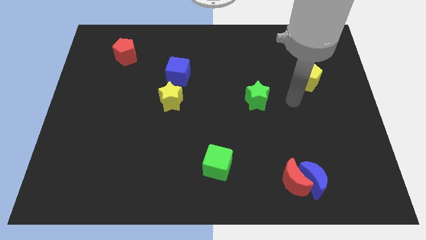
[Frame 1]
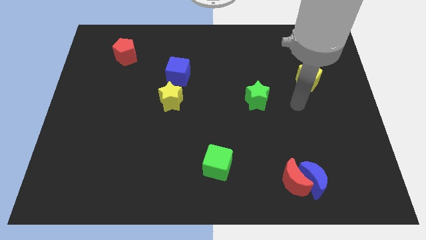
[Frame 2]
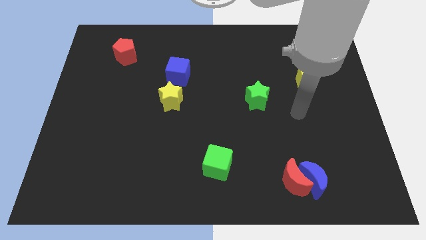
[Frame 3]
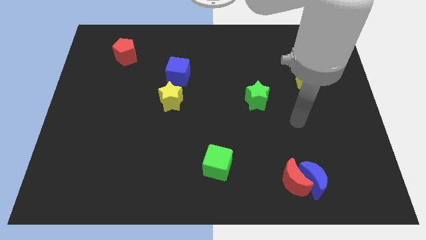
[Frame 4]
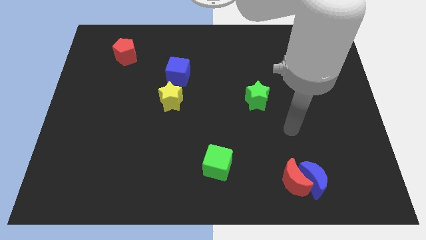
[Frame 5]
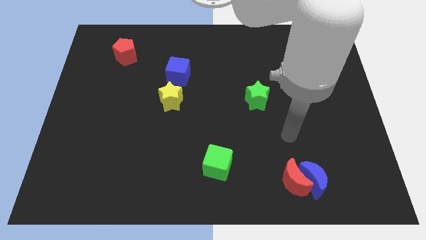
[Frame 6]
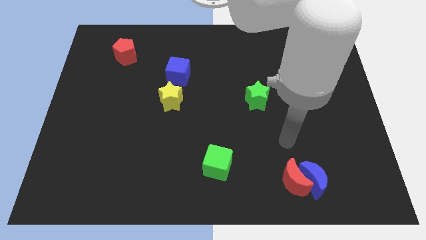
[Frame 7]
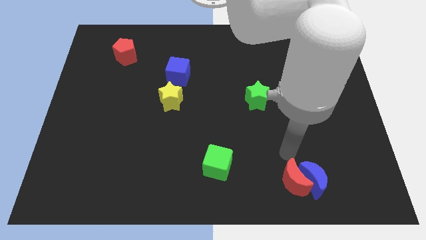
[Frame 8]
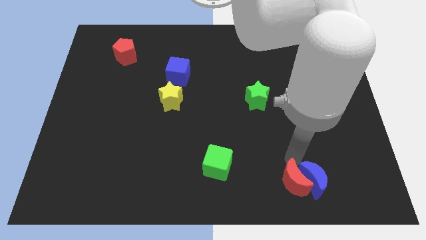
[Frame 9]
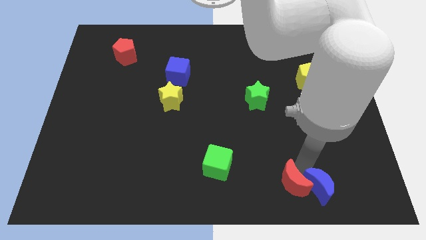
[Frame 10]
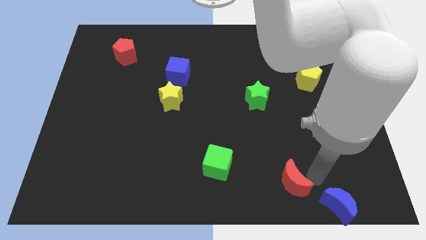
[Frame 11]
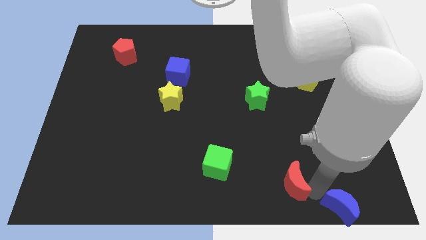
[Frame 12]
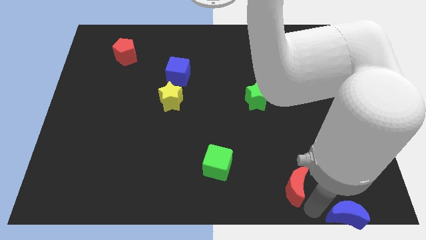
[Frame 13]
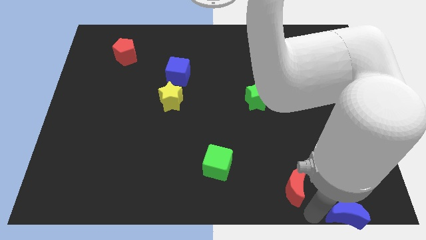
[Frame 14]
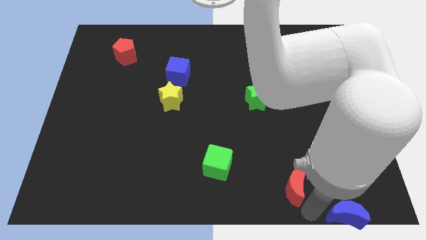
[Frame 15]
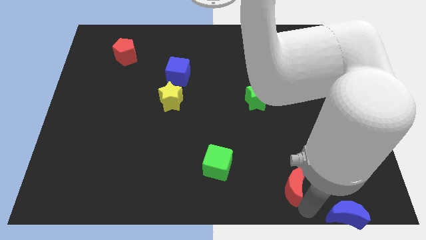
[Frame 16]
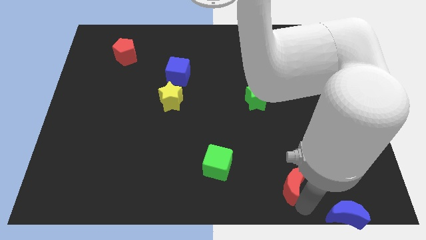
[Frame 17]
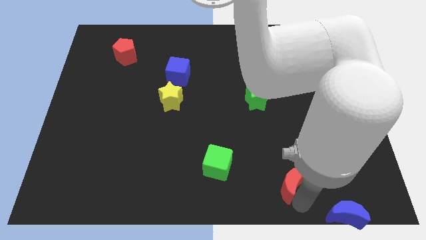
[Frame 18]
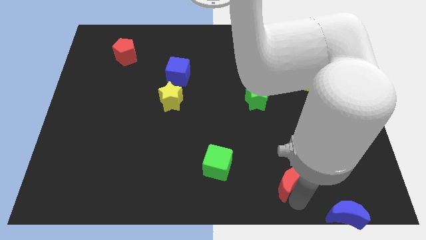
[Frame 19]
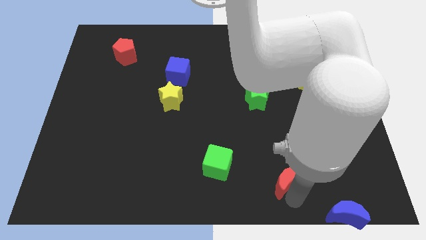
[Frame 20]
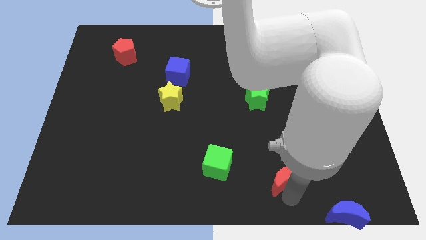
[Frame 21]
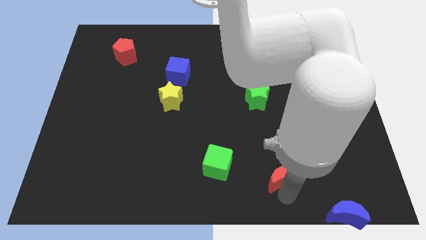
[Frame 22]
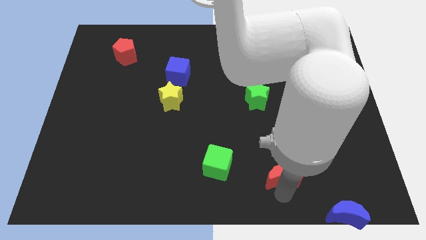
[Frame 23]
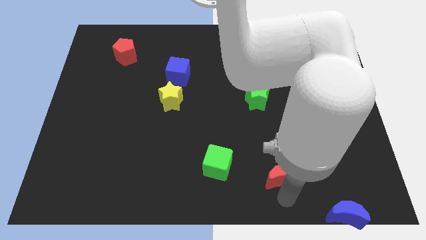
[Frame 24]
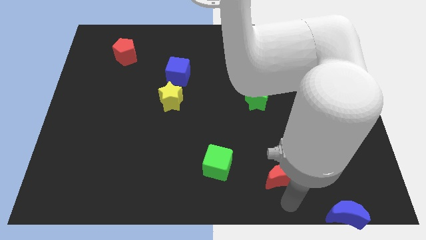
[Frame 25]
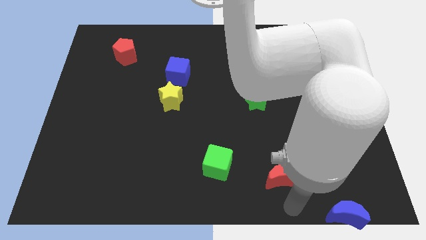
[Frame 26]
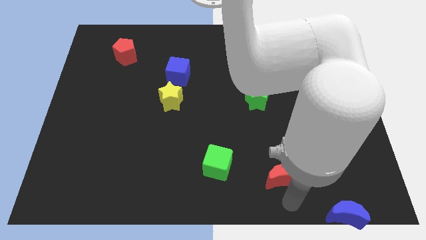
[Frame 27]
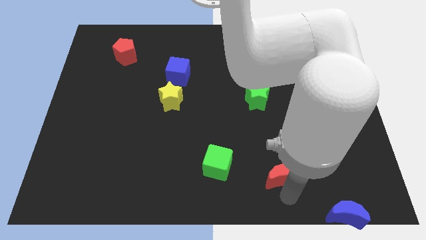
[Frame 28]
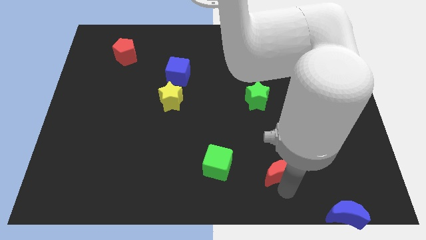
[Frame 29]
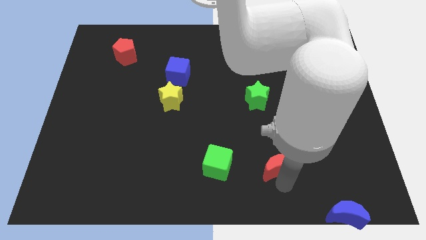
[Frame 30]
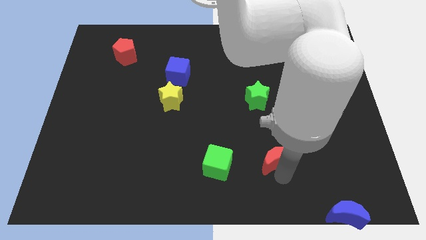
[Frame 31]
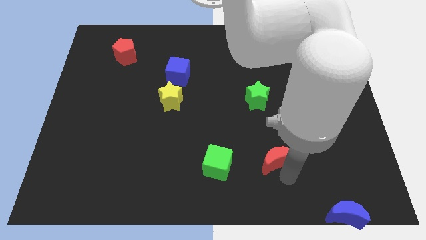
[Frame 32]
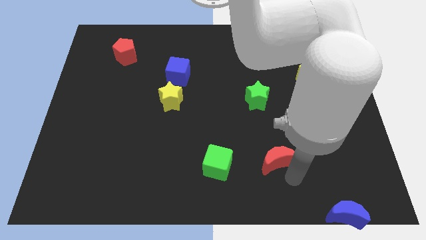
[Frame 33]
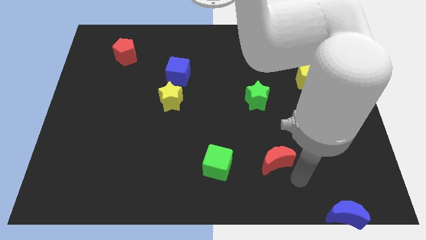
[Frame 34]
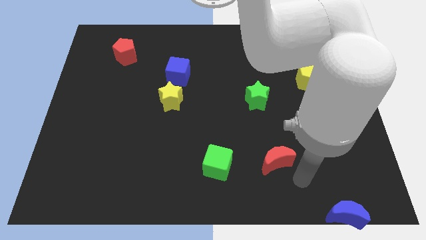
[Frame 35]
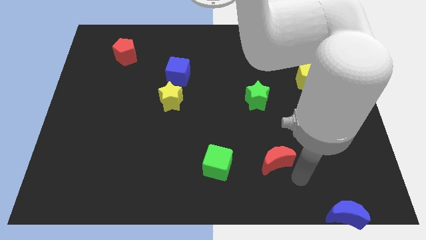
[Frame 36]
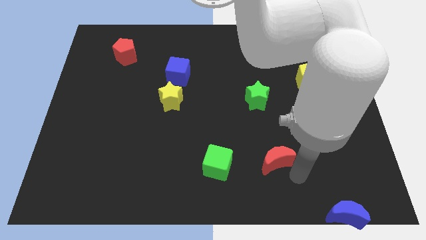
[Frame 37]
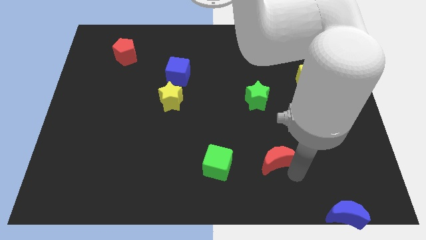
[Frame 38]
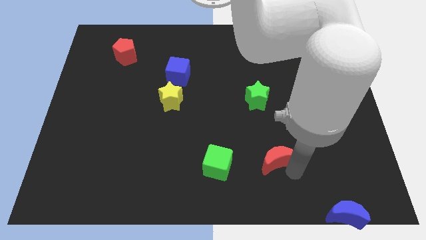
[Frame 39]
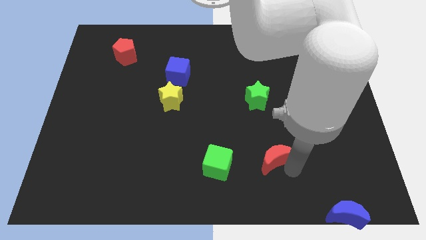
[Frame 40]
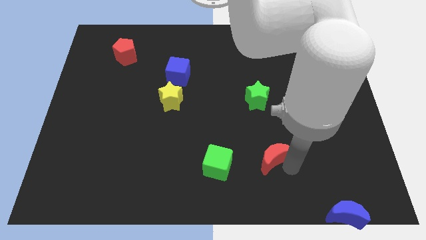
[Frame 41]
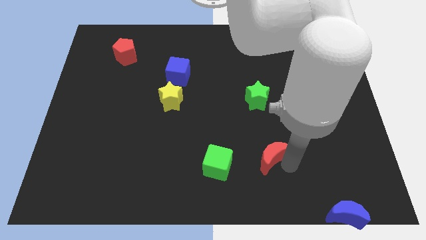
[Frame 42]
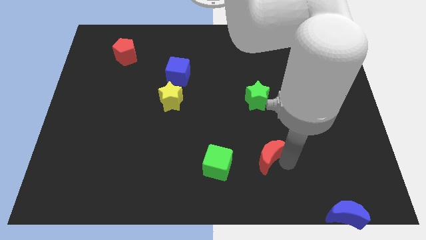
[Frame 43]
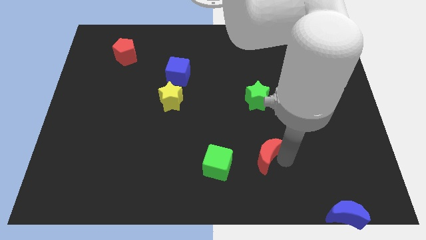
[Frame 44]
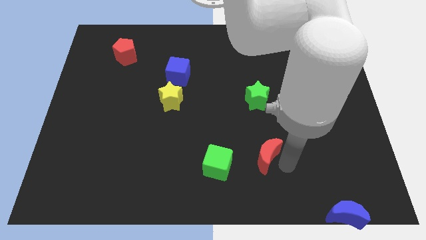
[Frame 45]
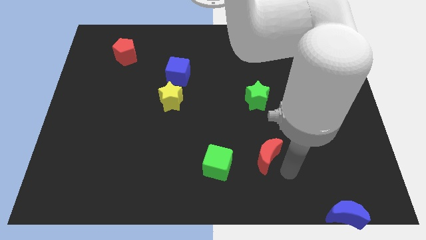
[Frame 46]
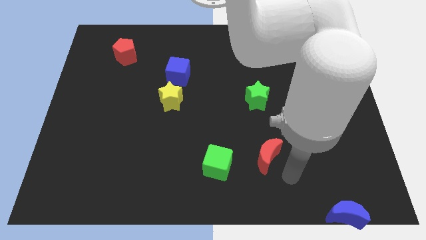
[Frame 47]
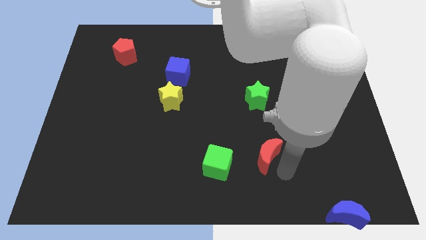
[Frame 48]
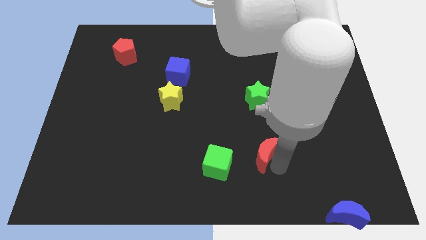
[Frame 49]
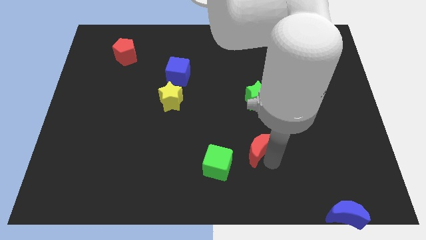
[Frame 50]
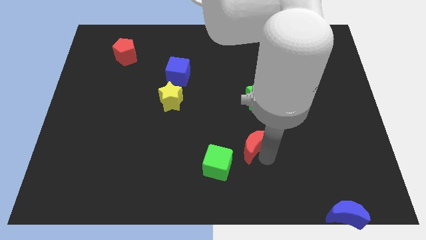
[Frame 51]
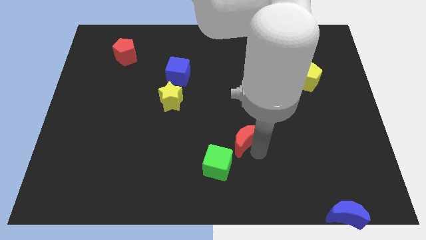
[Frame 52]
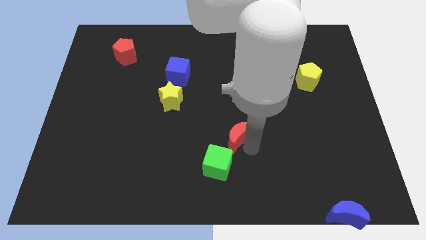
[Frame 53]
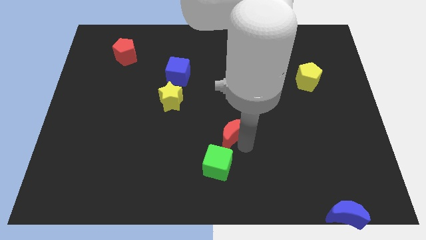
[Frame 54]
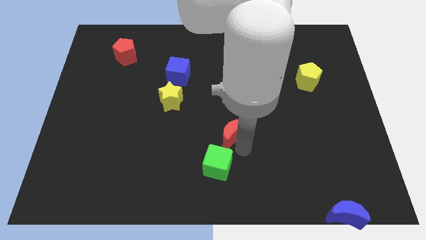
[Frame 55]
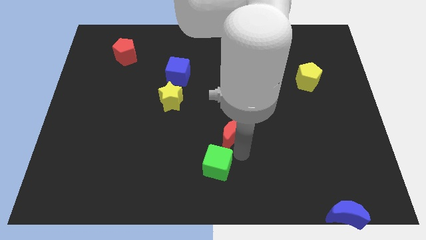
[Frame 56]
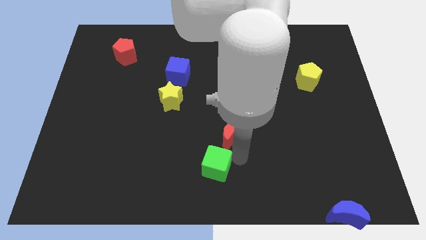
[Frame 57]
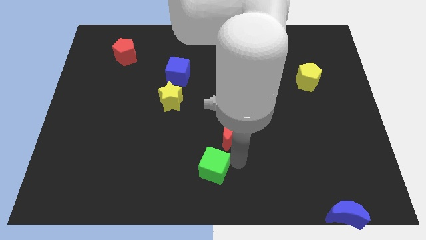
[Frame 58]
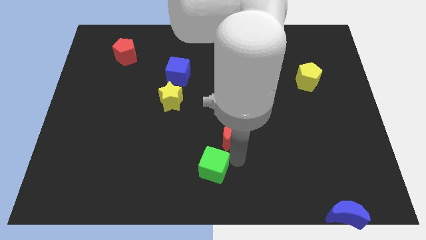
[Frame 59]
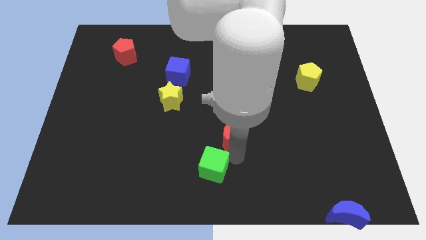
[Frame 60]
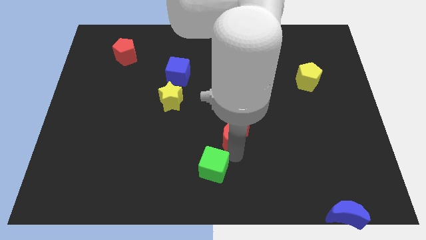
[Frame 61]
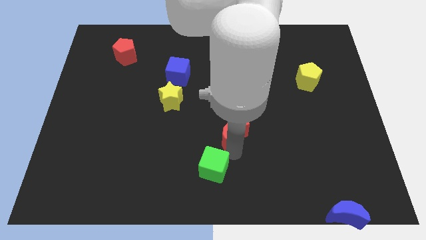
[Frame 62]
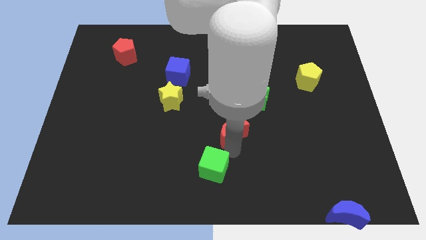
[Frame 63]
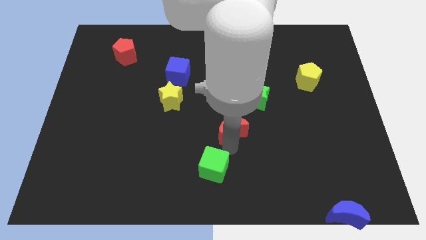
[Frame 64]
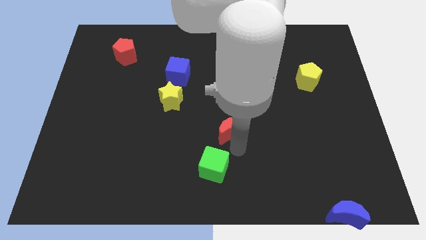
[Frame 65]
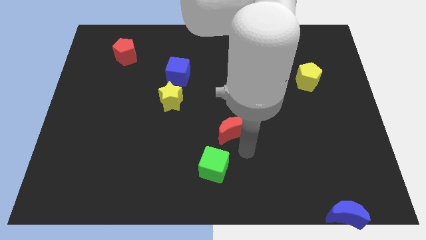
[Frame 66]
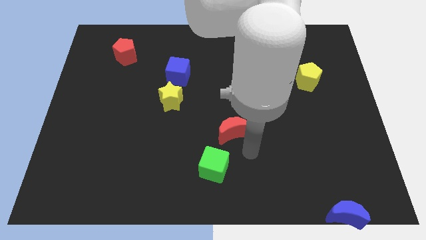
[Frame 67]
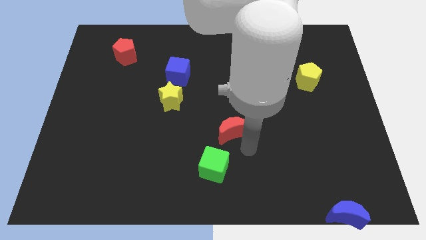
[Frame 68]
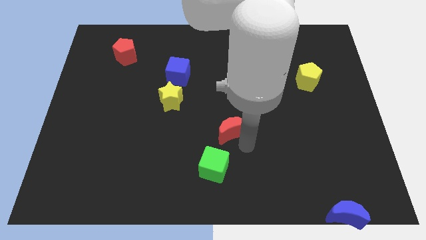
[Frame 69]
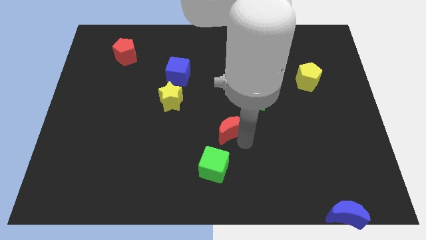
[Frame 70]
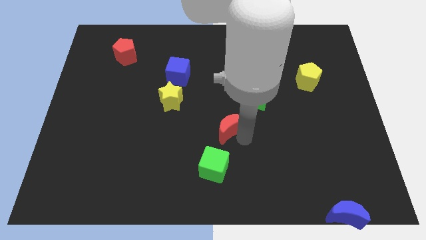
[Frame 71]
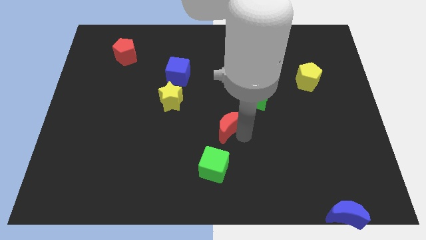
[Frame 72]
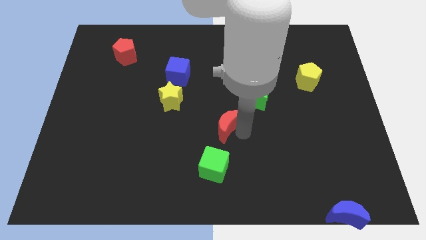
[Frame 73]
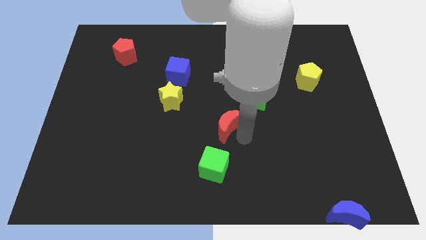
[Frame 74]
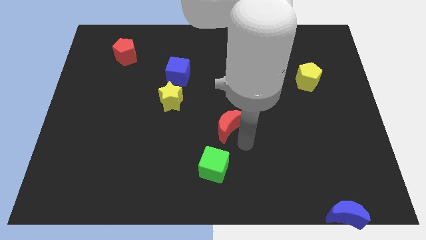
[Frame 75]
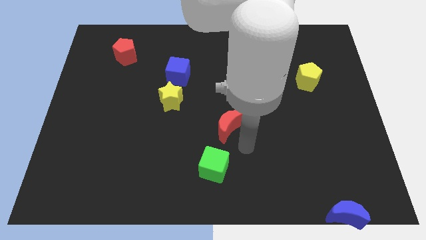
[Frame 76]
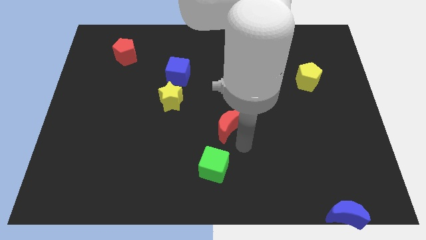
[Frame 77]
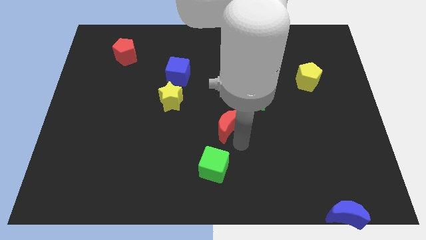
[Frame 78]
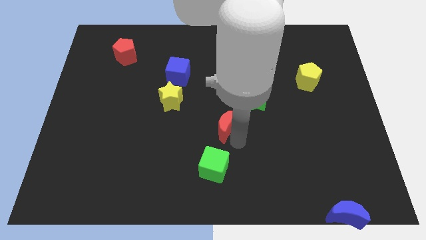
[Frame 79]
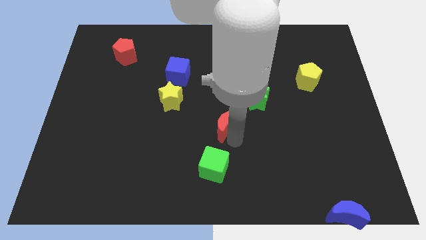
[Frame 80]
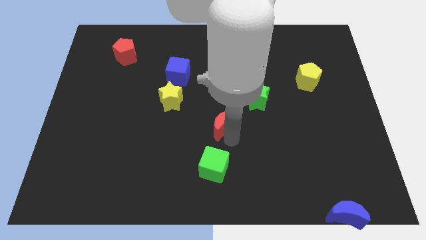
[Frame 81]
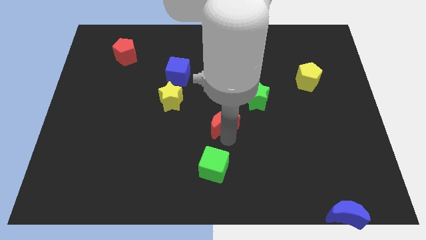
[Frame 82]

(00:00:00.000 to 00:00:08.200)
move the red moon upwards and left diagonally
